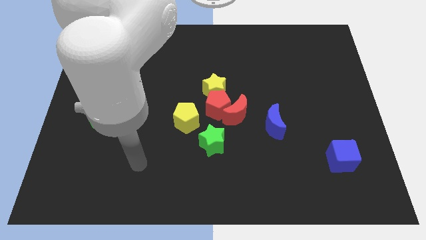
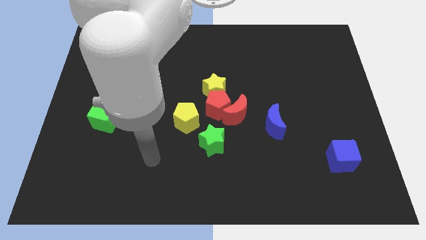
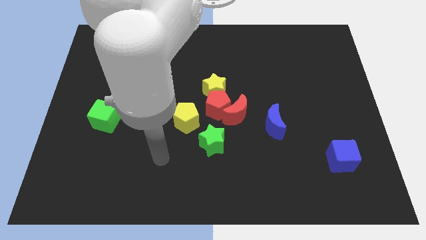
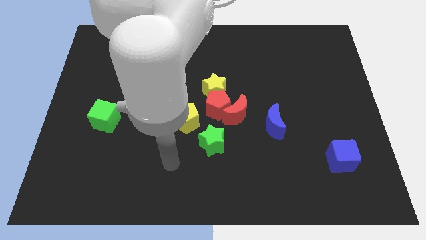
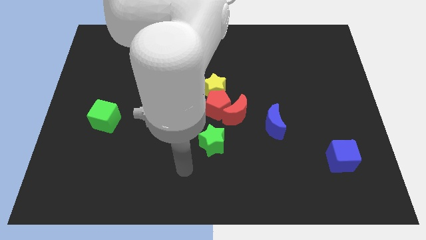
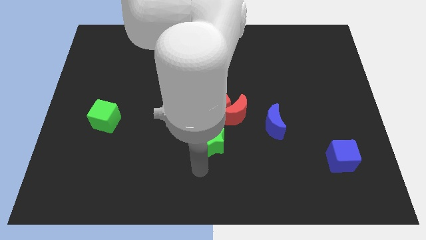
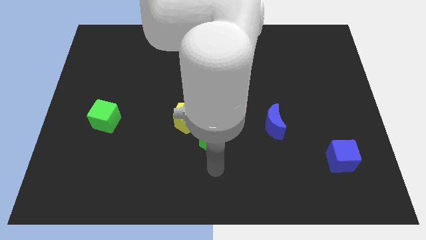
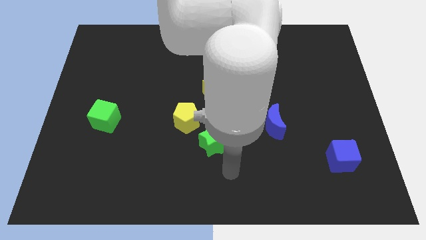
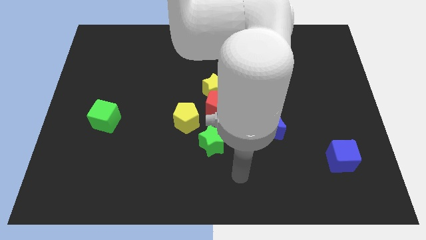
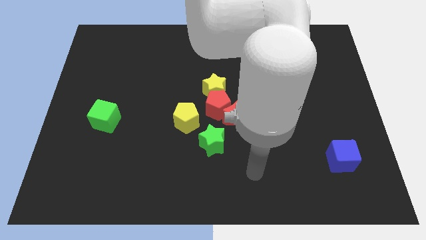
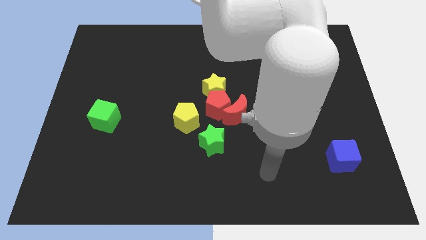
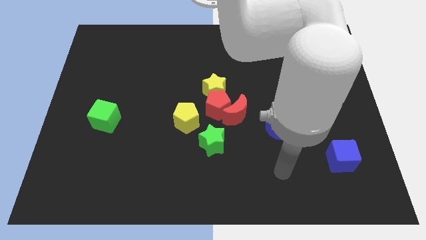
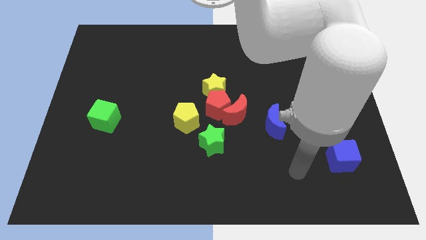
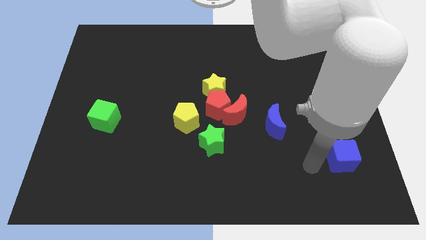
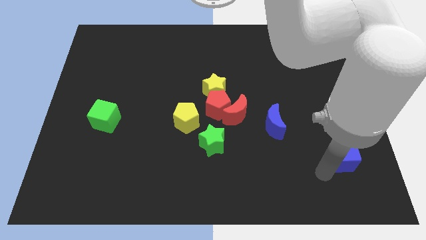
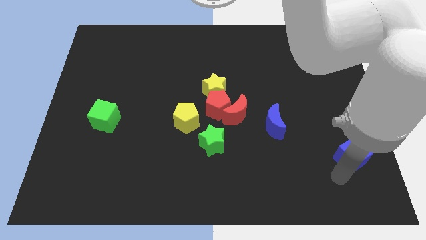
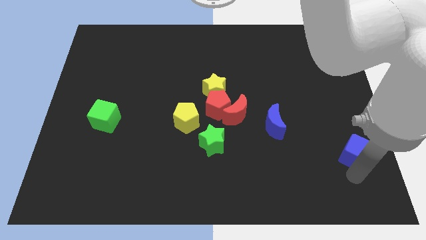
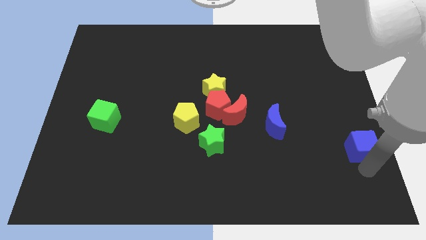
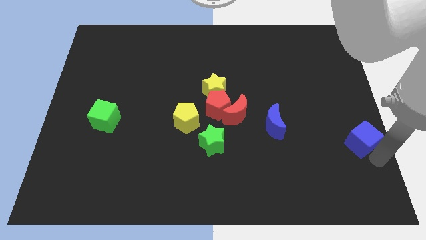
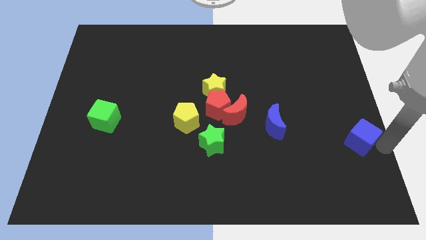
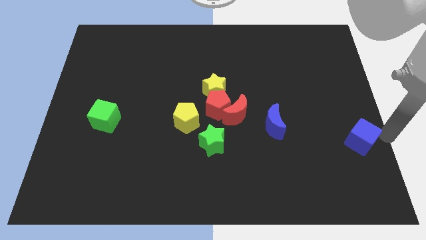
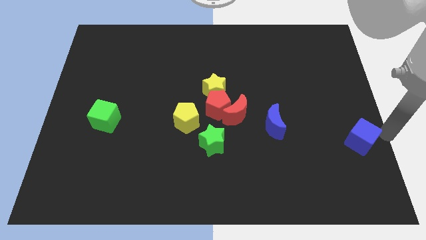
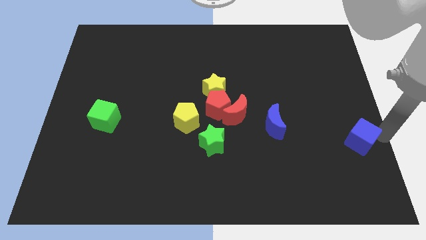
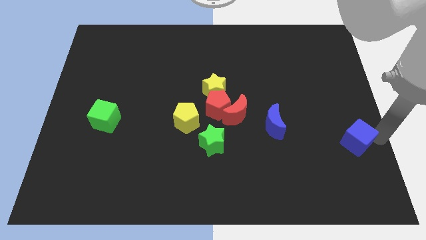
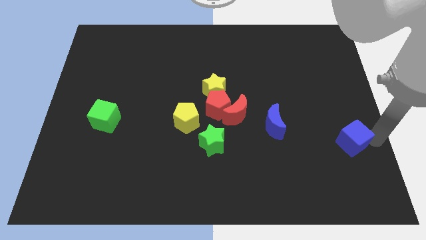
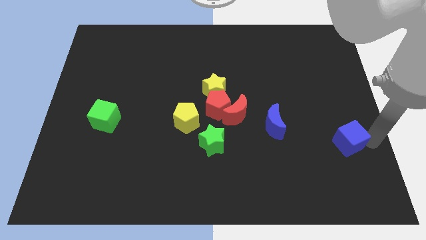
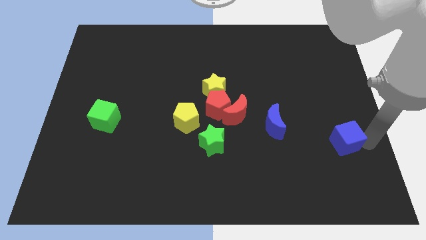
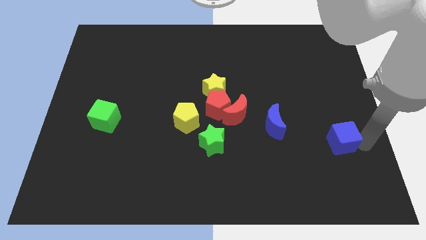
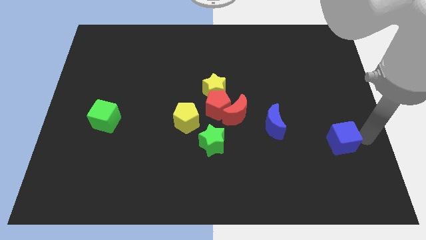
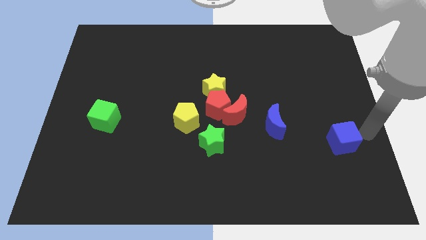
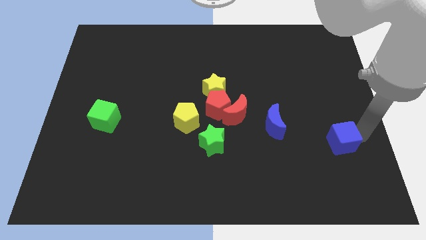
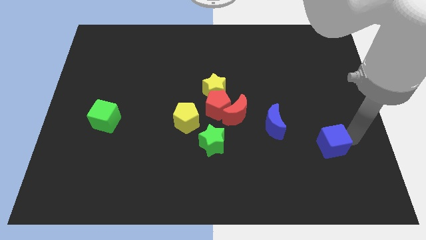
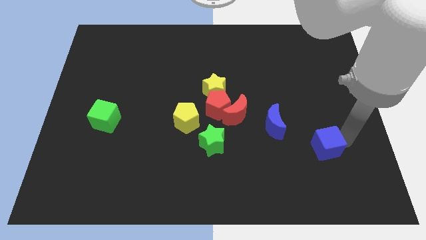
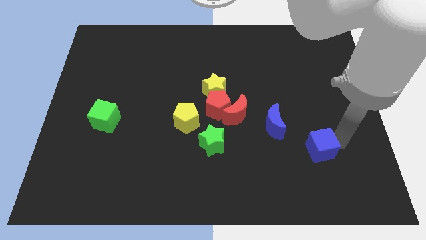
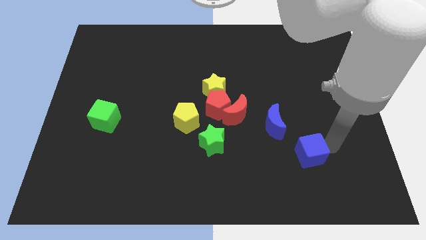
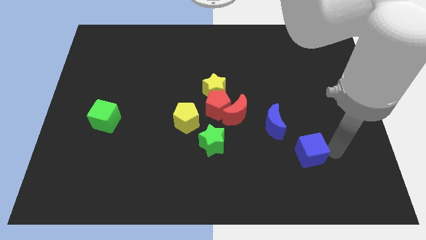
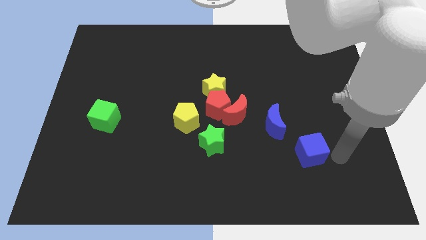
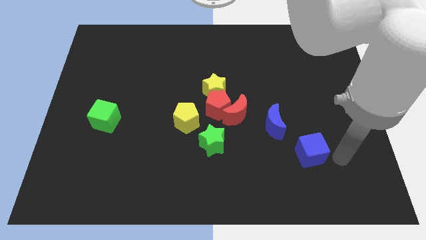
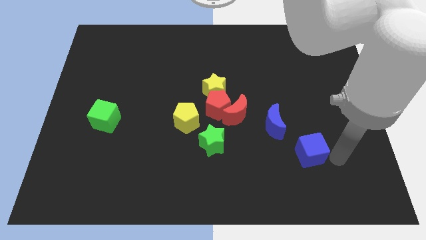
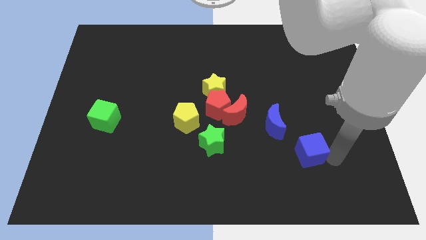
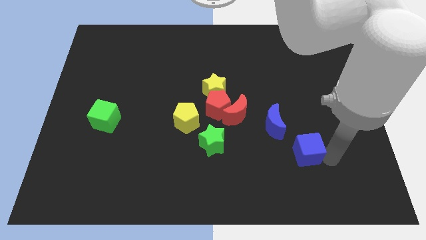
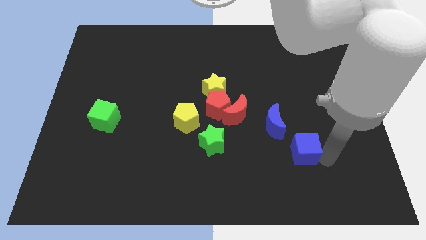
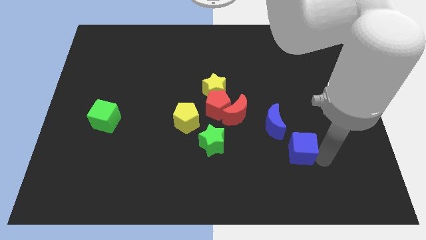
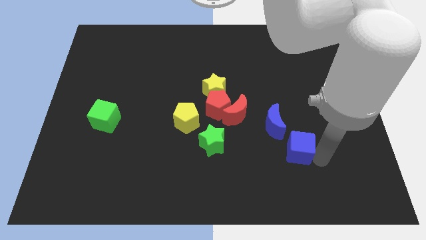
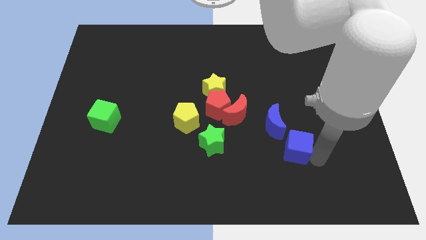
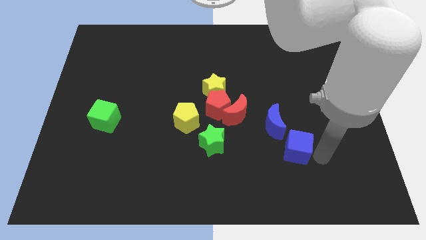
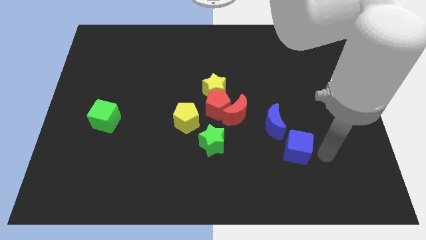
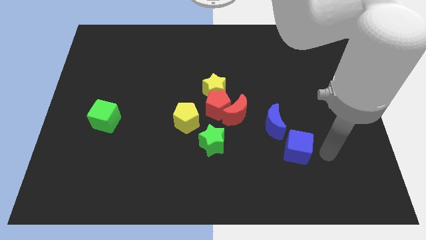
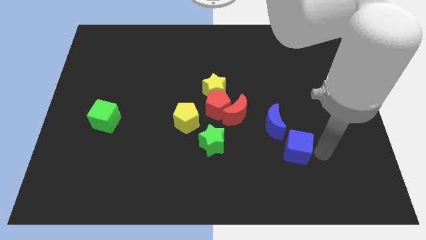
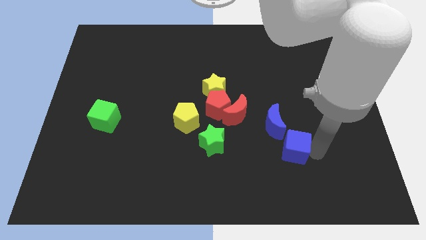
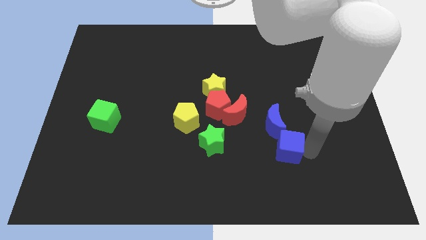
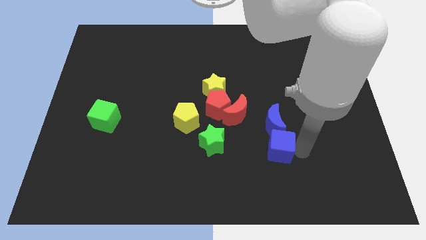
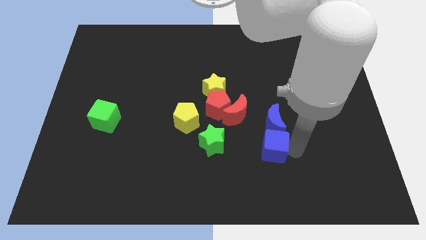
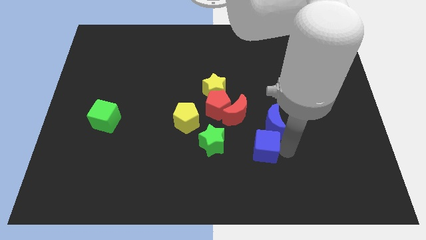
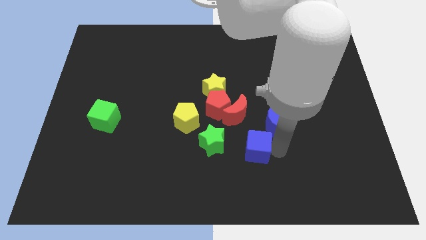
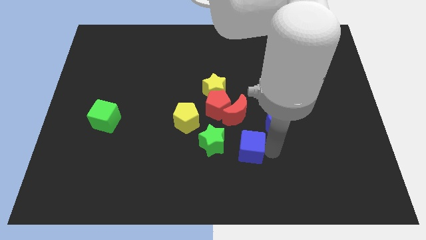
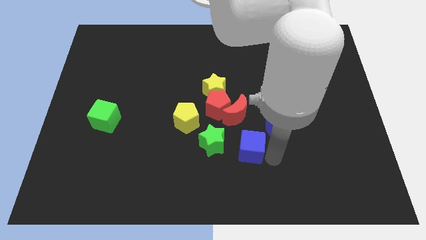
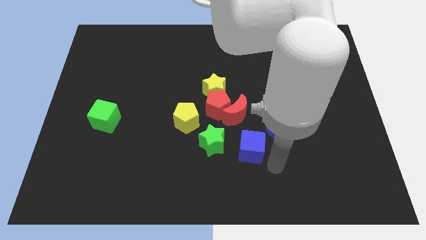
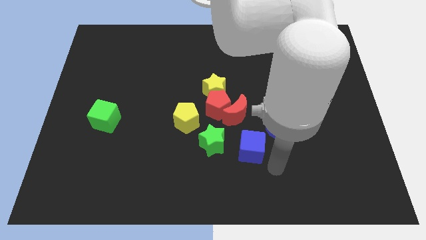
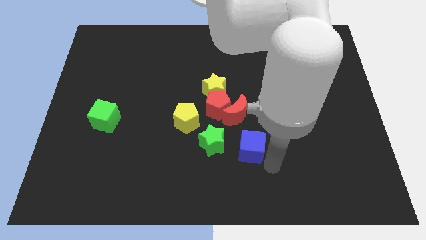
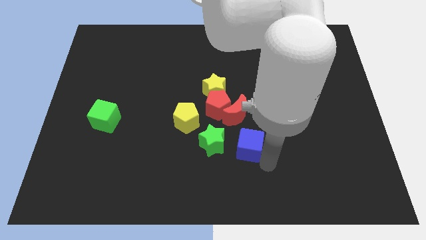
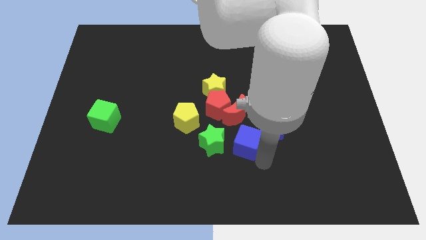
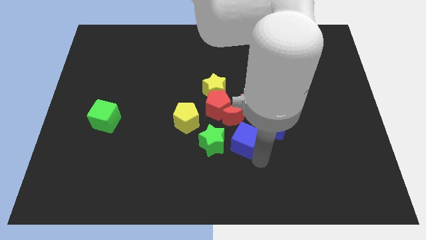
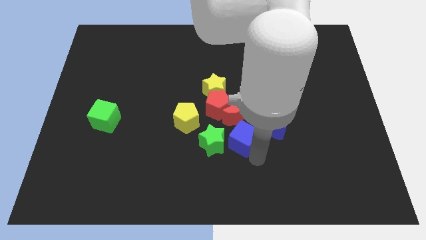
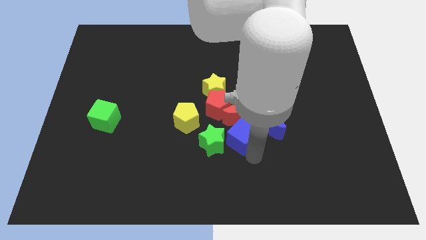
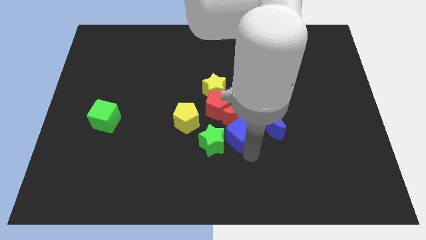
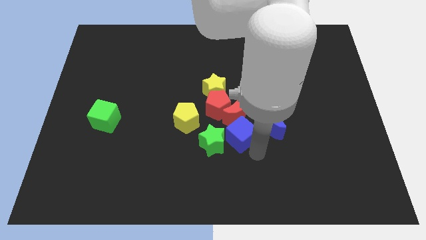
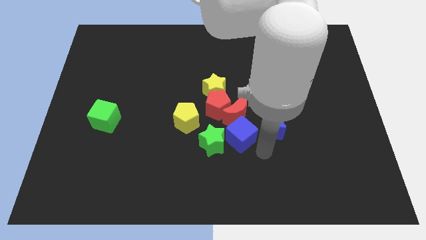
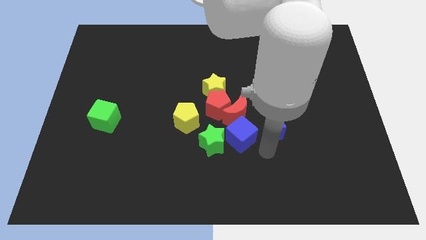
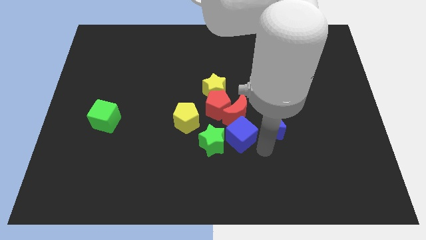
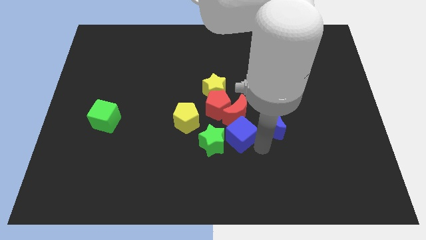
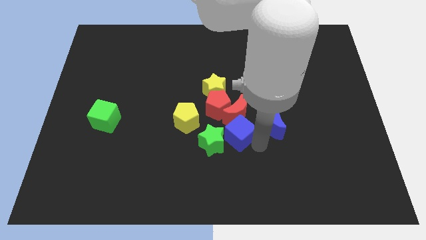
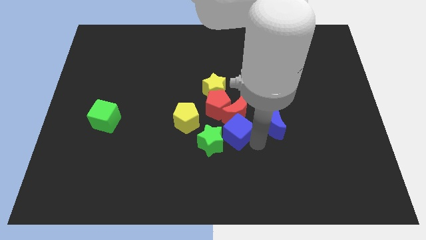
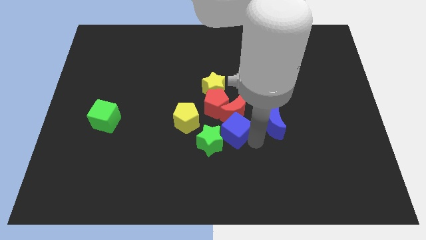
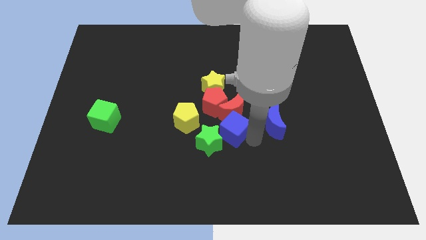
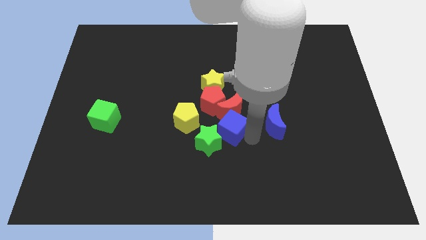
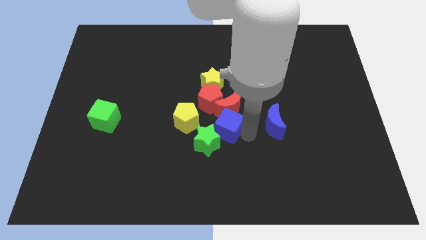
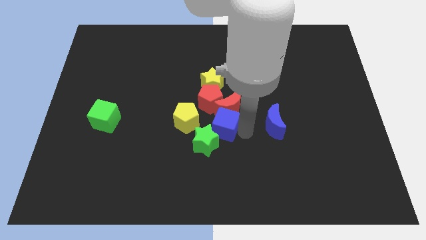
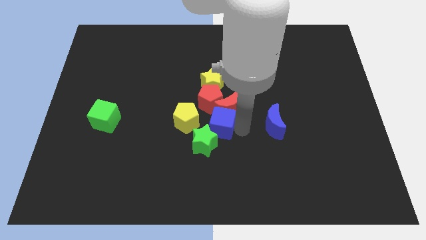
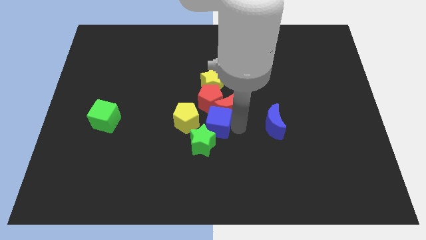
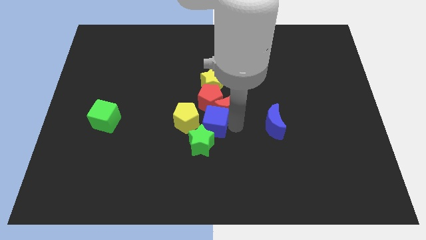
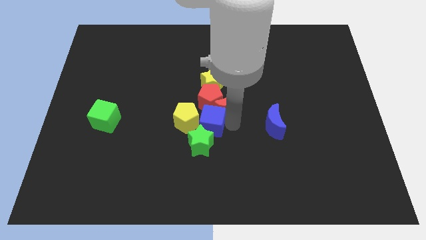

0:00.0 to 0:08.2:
slide the blue cube to the yellow pentagon
